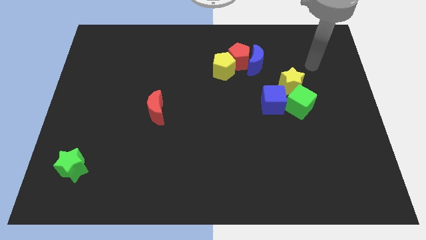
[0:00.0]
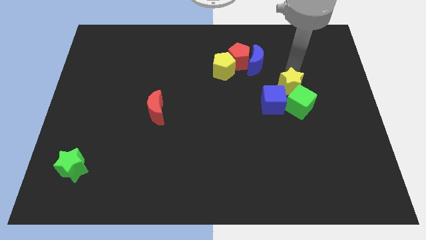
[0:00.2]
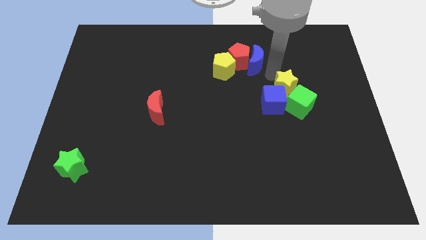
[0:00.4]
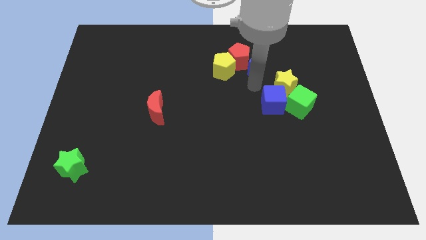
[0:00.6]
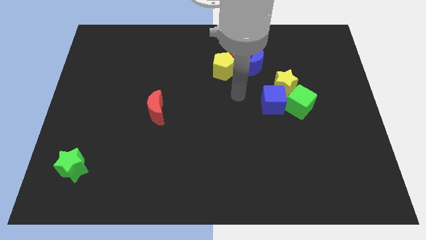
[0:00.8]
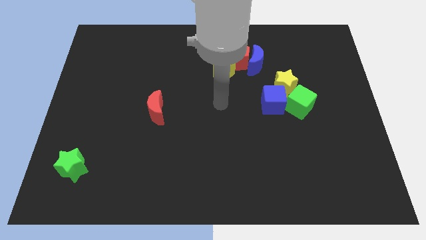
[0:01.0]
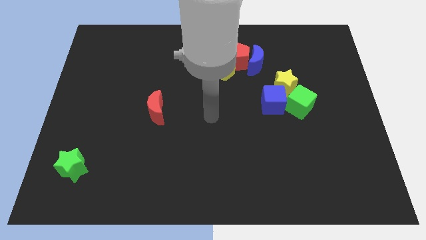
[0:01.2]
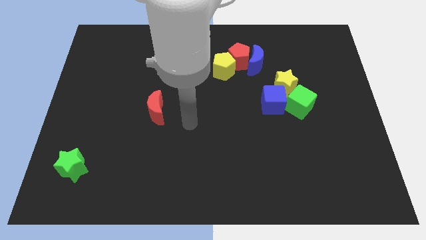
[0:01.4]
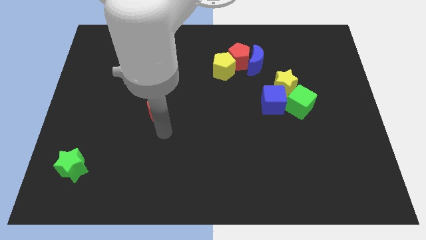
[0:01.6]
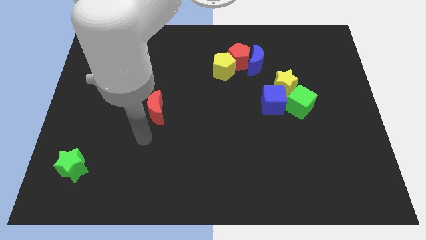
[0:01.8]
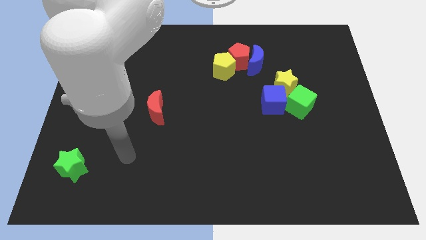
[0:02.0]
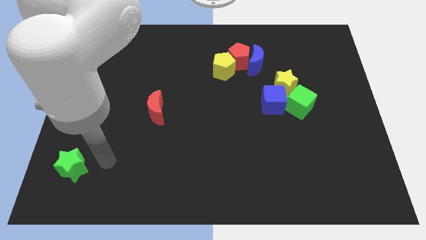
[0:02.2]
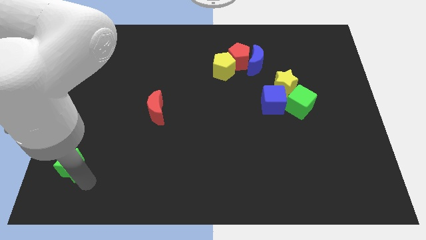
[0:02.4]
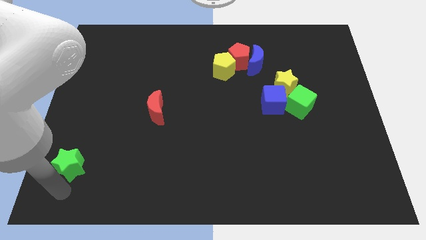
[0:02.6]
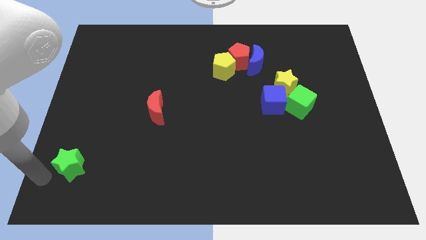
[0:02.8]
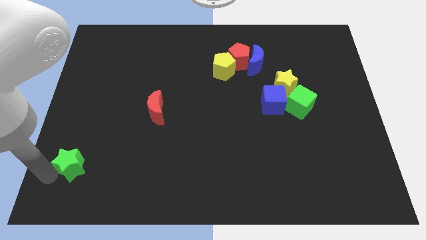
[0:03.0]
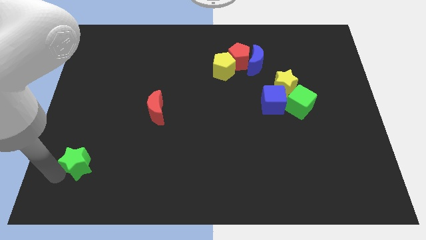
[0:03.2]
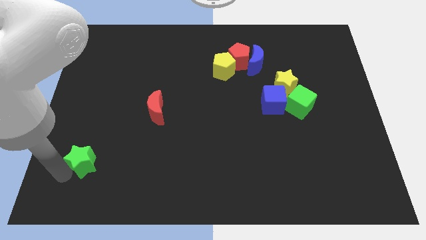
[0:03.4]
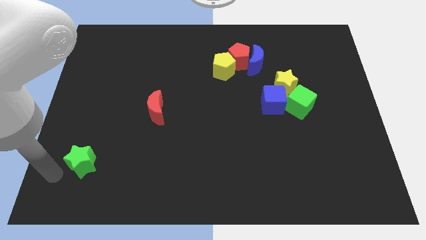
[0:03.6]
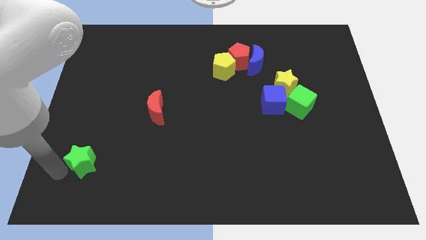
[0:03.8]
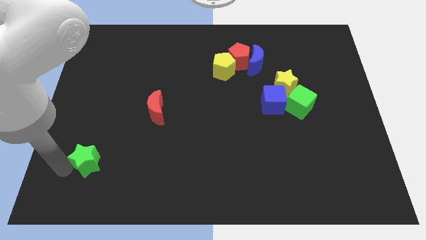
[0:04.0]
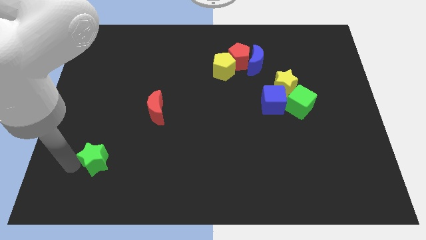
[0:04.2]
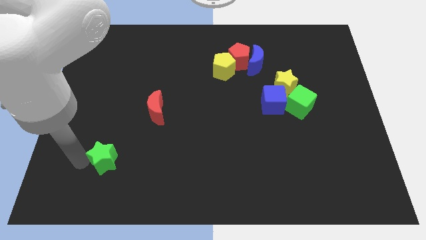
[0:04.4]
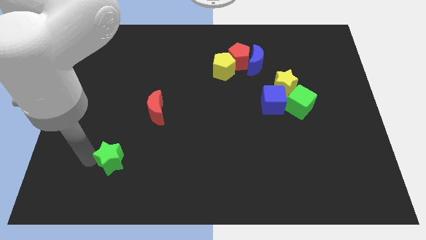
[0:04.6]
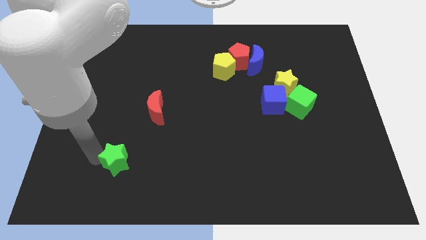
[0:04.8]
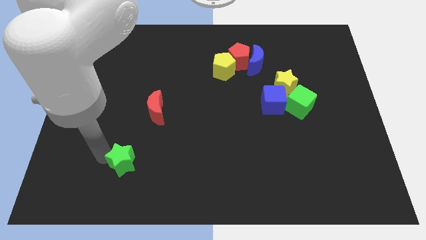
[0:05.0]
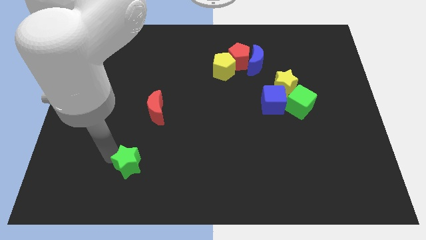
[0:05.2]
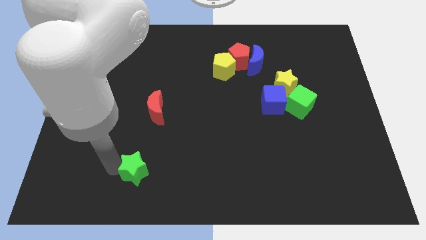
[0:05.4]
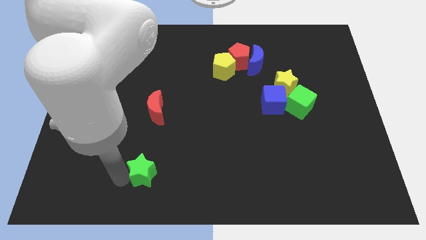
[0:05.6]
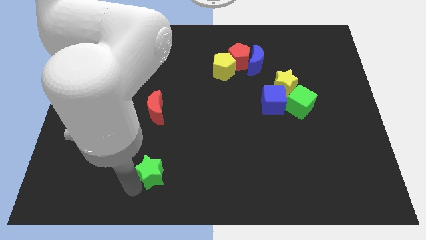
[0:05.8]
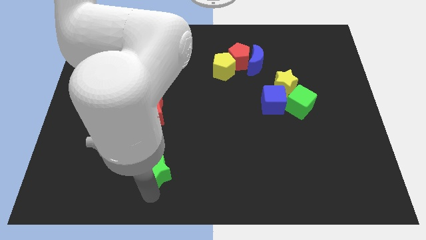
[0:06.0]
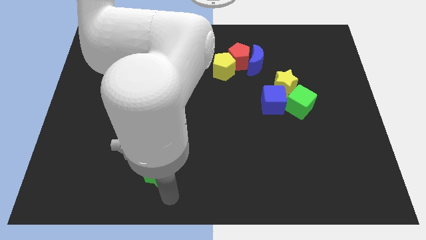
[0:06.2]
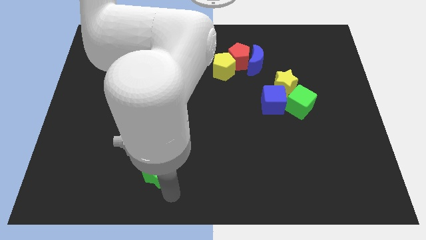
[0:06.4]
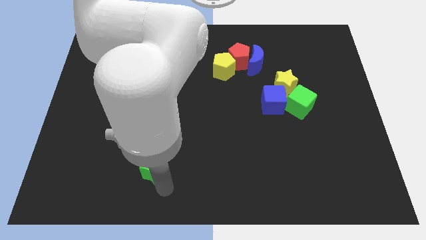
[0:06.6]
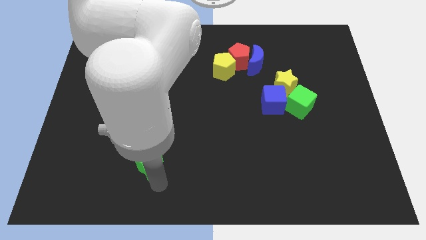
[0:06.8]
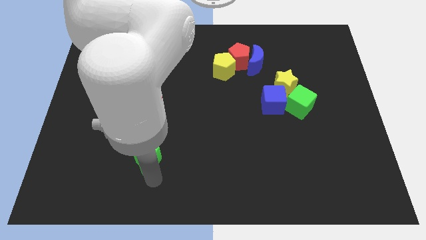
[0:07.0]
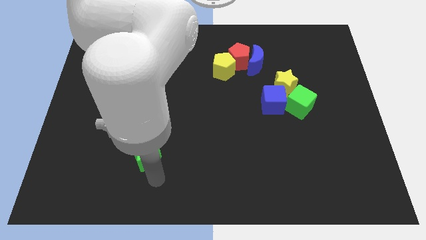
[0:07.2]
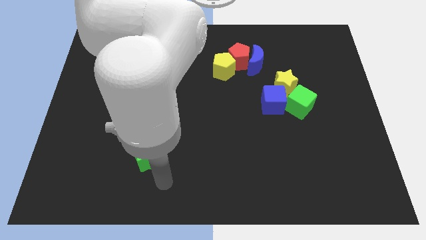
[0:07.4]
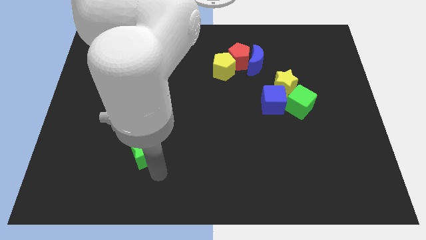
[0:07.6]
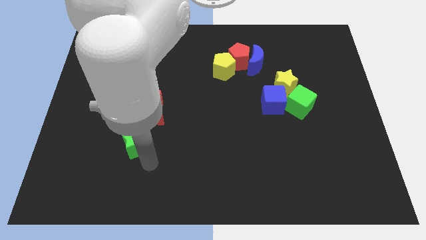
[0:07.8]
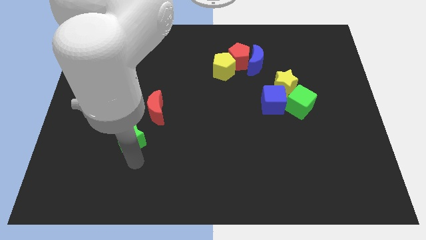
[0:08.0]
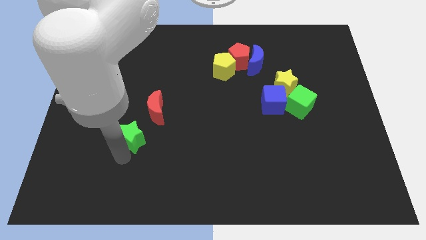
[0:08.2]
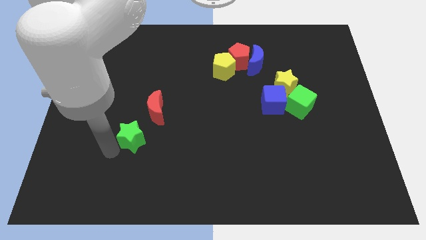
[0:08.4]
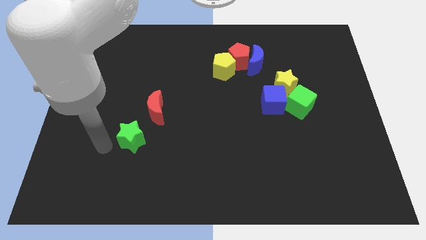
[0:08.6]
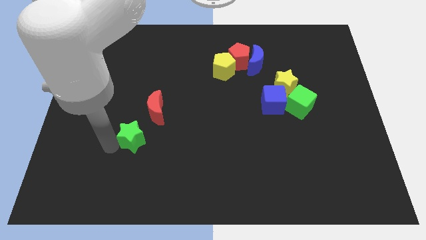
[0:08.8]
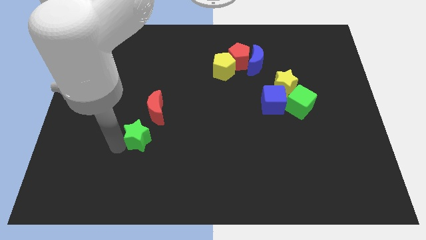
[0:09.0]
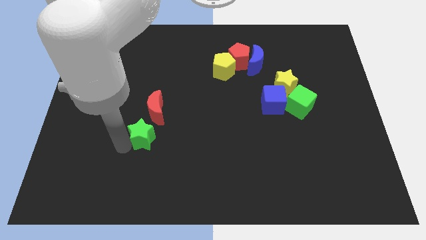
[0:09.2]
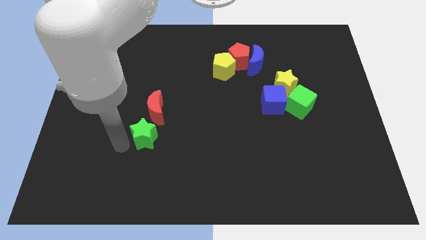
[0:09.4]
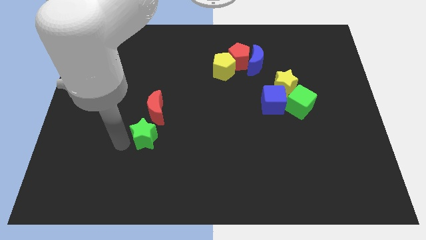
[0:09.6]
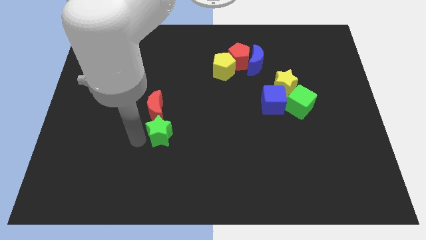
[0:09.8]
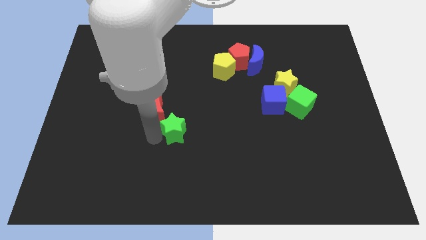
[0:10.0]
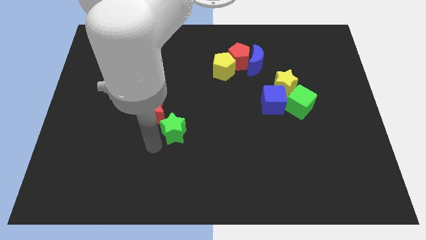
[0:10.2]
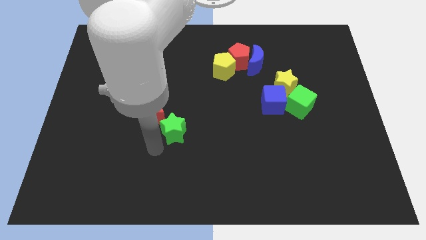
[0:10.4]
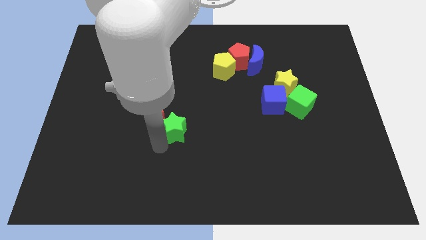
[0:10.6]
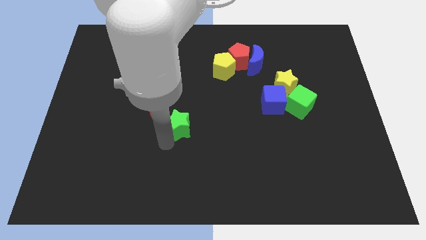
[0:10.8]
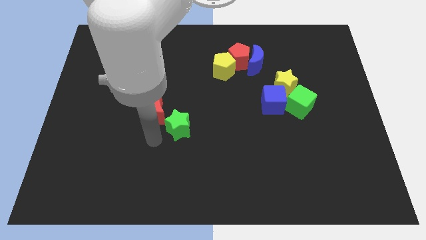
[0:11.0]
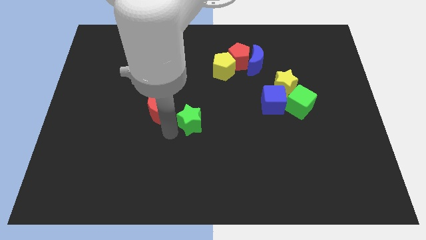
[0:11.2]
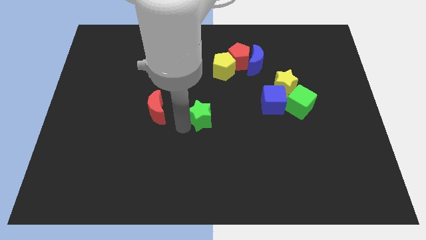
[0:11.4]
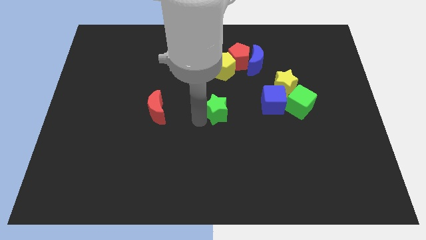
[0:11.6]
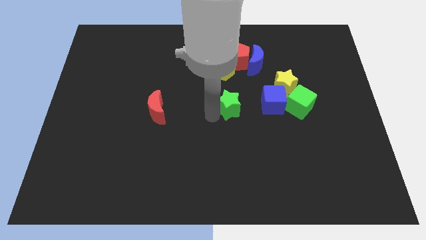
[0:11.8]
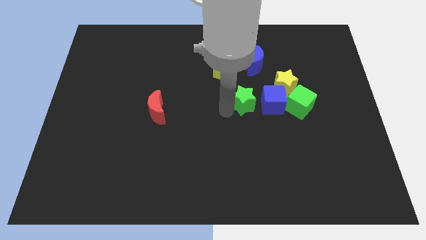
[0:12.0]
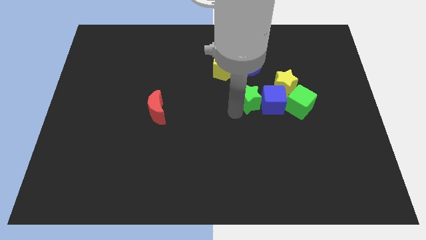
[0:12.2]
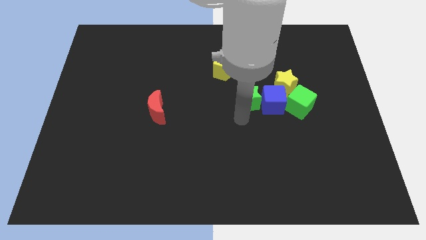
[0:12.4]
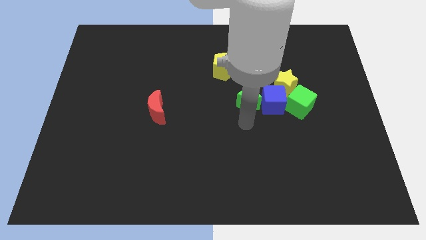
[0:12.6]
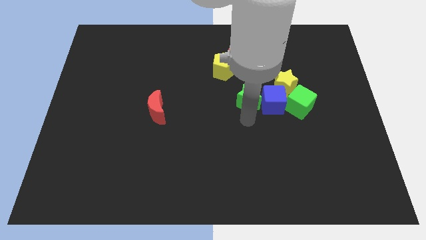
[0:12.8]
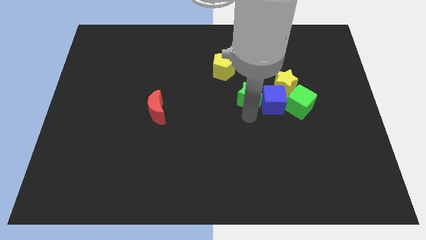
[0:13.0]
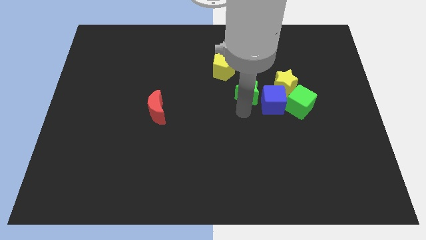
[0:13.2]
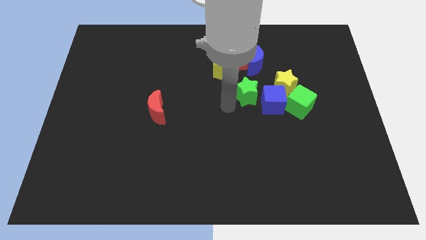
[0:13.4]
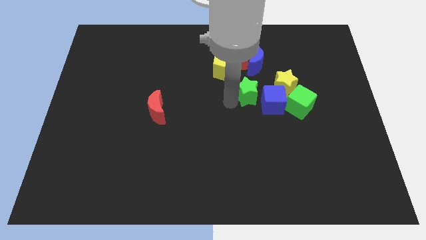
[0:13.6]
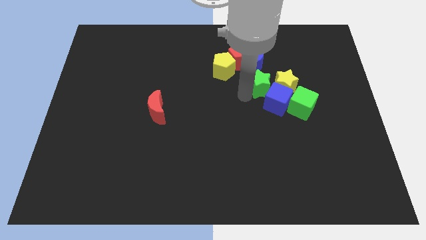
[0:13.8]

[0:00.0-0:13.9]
push the green star close to the yellow star

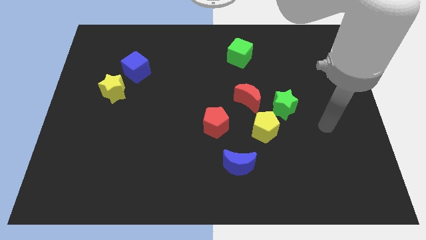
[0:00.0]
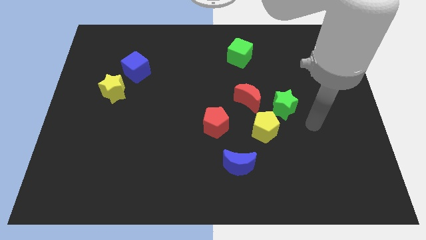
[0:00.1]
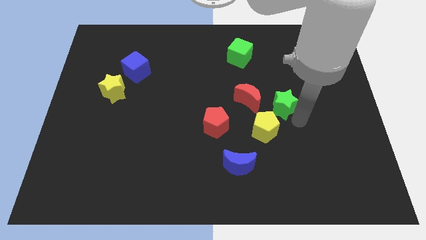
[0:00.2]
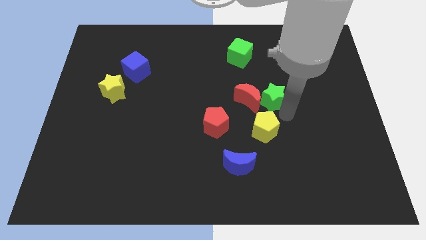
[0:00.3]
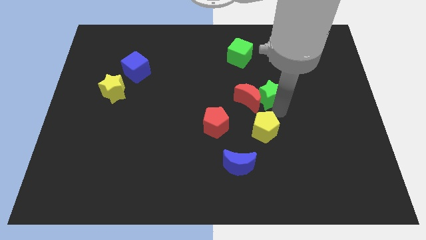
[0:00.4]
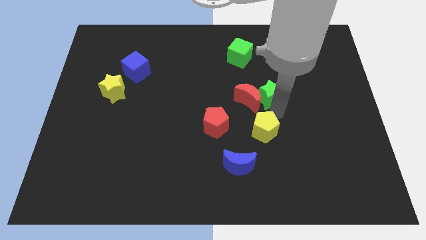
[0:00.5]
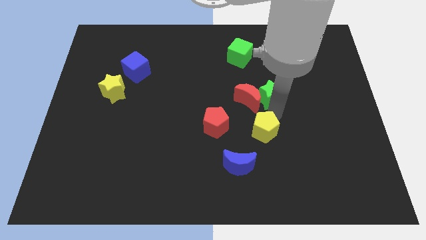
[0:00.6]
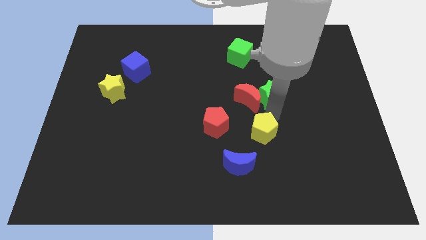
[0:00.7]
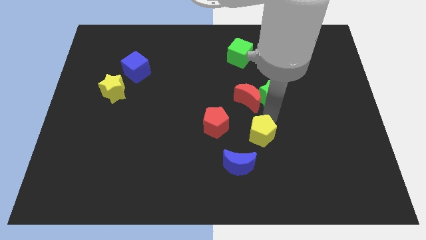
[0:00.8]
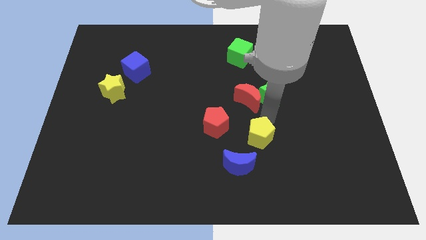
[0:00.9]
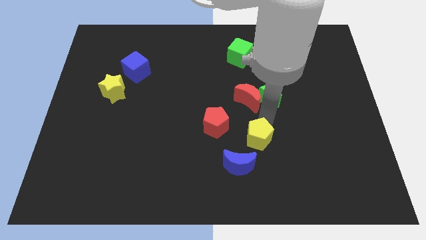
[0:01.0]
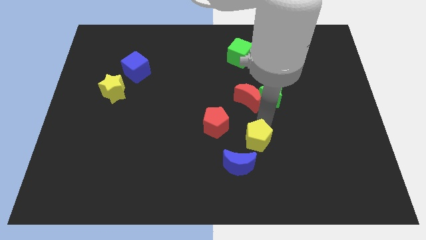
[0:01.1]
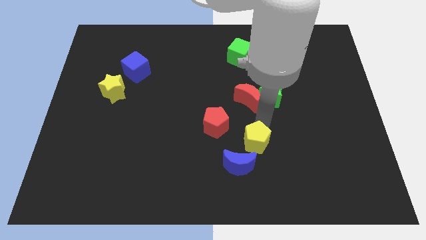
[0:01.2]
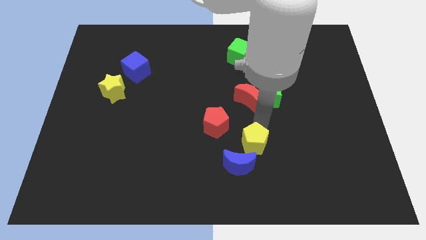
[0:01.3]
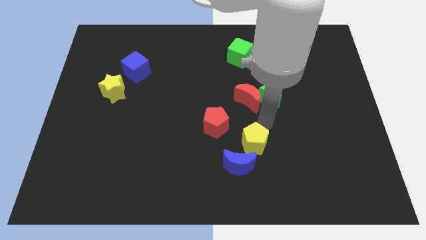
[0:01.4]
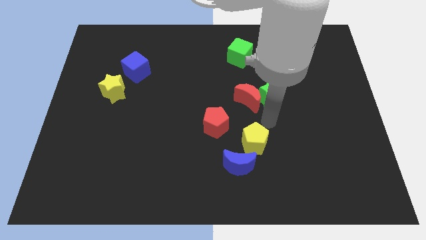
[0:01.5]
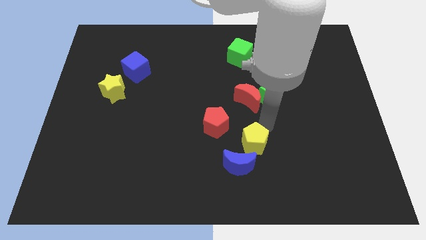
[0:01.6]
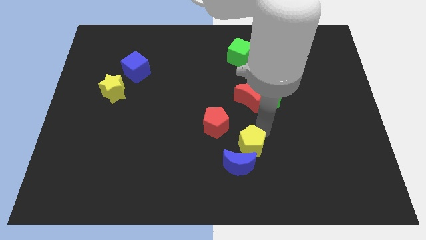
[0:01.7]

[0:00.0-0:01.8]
put the yellow pentagon to the blue moon
